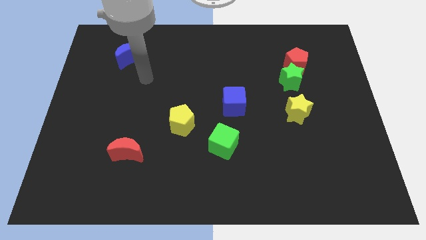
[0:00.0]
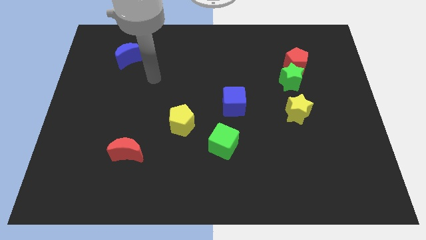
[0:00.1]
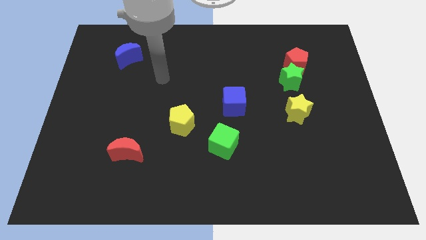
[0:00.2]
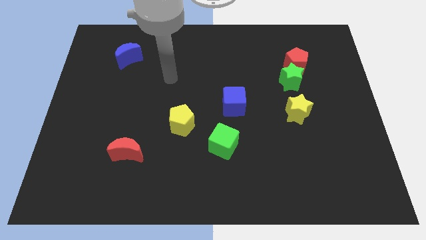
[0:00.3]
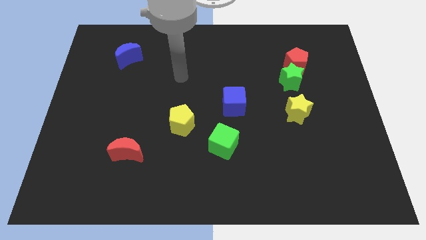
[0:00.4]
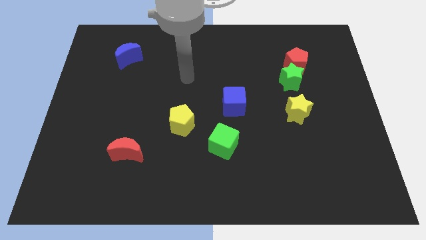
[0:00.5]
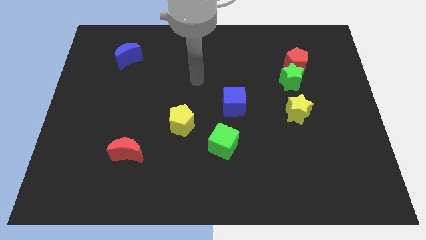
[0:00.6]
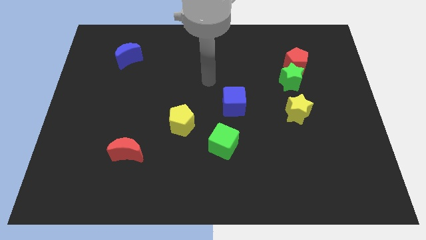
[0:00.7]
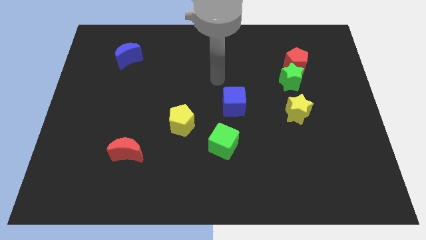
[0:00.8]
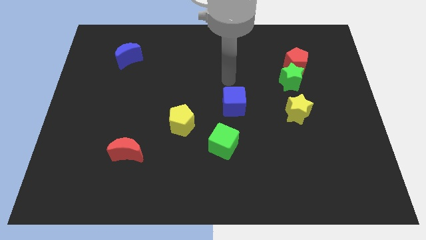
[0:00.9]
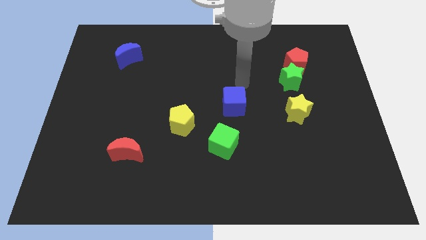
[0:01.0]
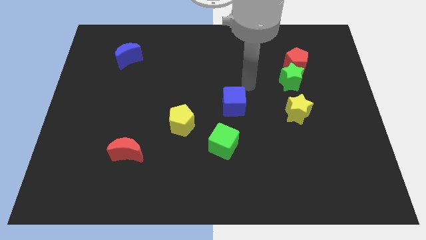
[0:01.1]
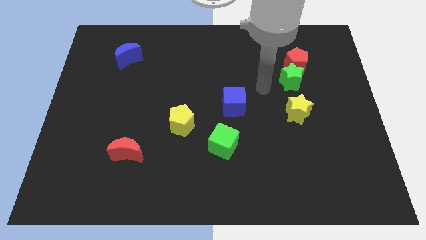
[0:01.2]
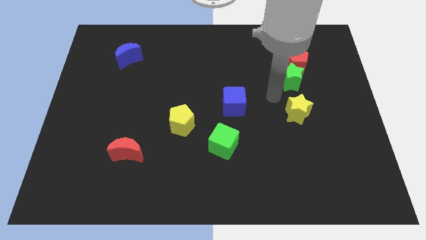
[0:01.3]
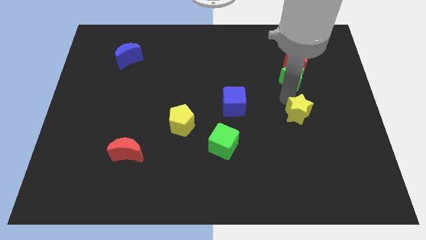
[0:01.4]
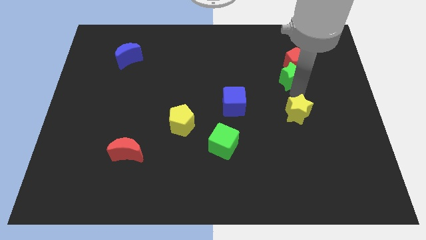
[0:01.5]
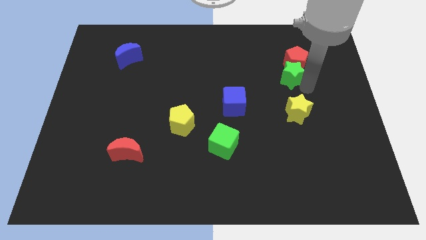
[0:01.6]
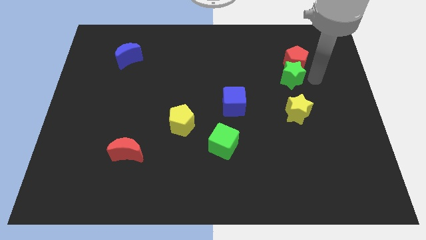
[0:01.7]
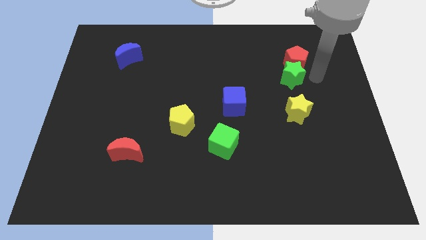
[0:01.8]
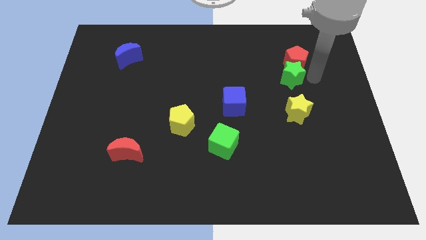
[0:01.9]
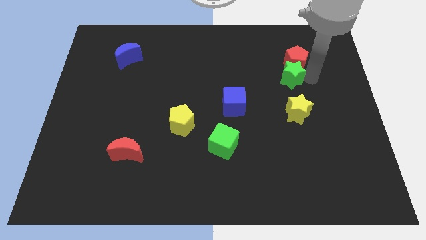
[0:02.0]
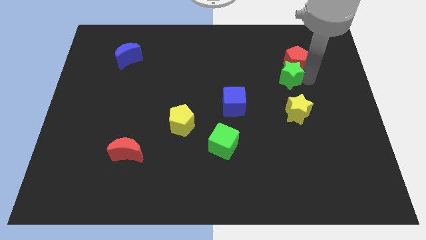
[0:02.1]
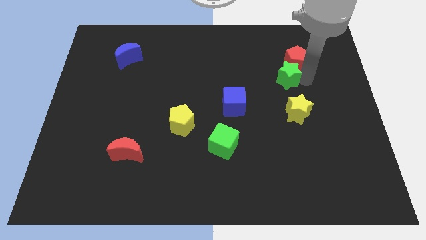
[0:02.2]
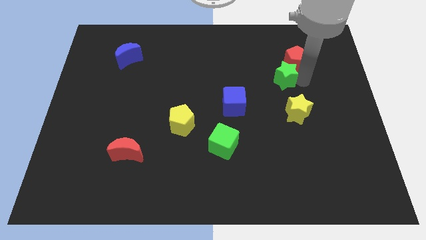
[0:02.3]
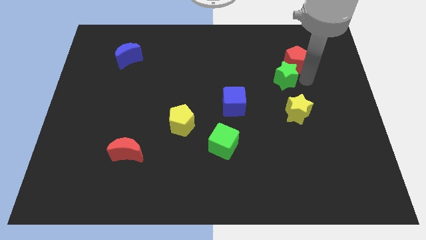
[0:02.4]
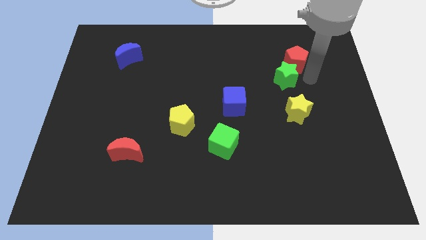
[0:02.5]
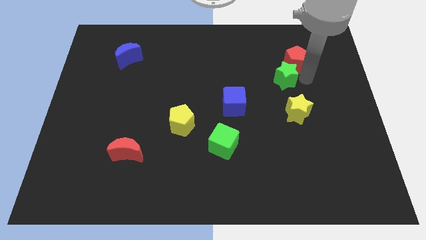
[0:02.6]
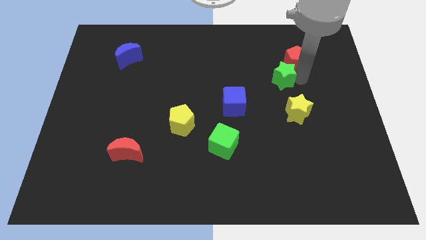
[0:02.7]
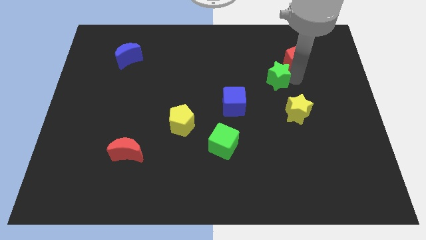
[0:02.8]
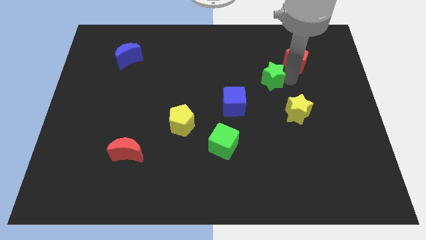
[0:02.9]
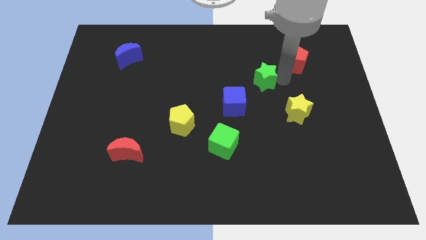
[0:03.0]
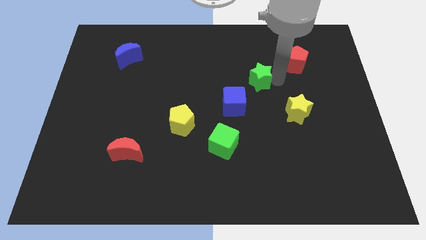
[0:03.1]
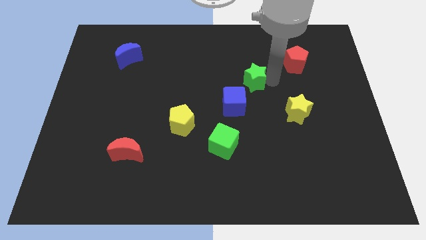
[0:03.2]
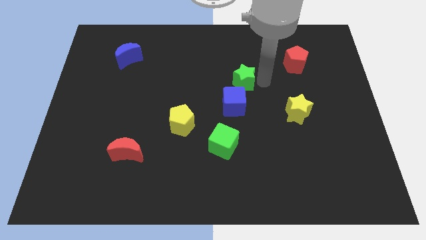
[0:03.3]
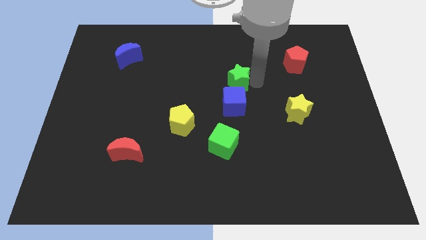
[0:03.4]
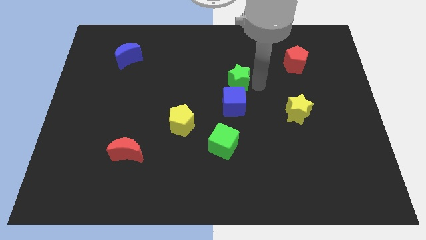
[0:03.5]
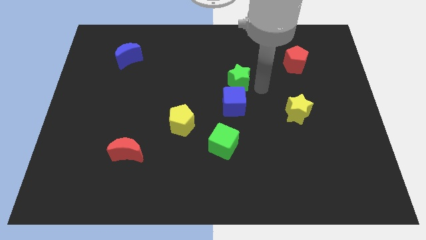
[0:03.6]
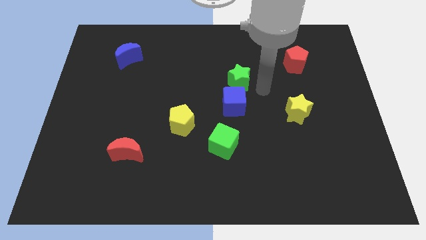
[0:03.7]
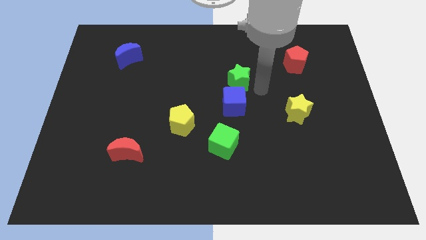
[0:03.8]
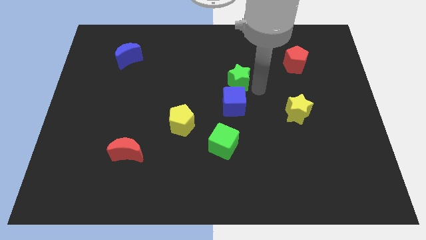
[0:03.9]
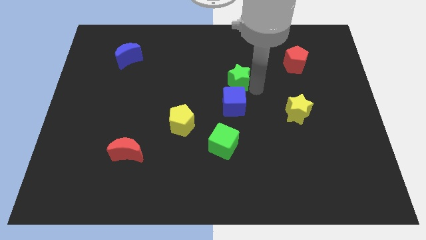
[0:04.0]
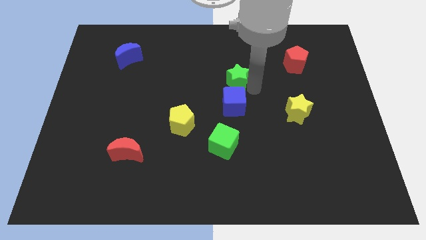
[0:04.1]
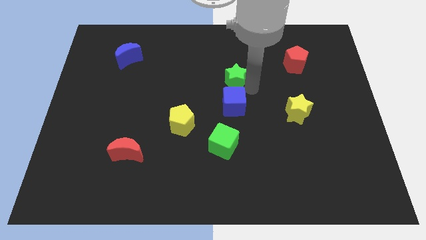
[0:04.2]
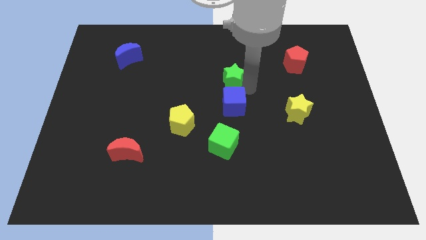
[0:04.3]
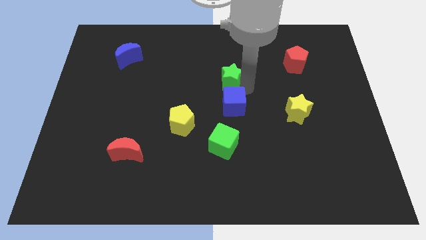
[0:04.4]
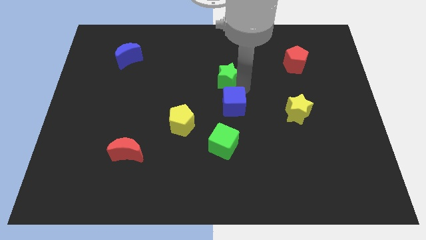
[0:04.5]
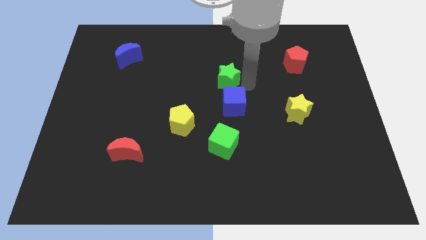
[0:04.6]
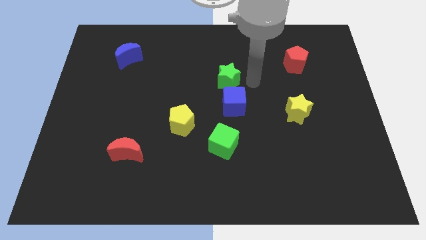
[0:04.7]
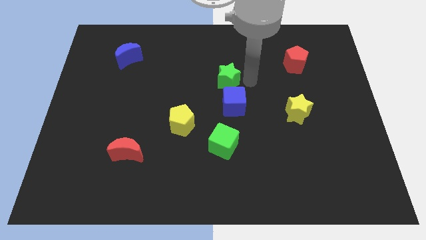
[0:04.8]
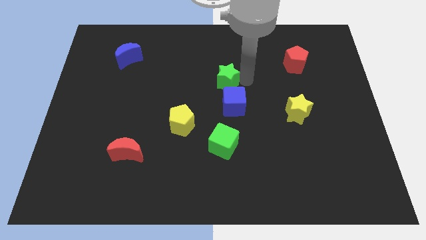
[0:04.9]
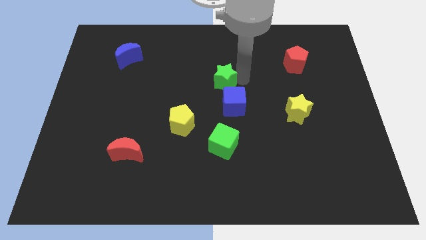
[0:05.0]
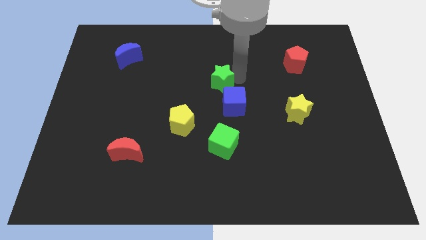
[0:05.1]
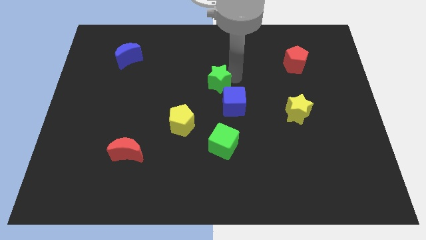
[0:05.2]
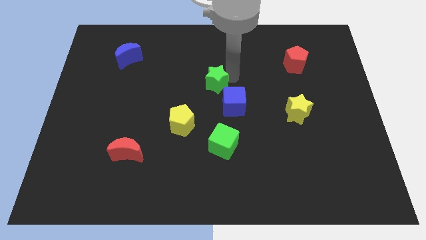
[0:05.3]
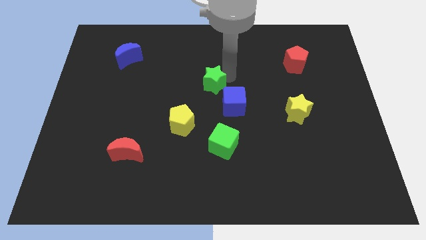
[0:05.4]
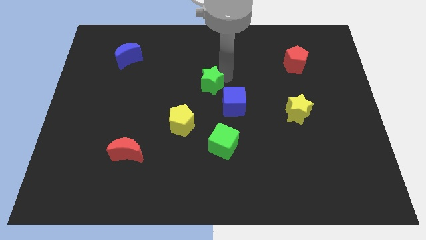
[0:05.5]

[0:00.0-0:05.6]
move the green star left

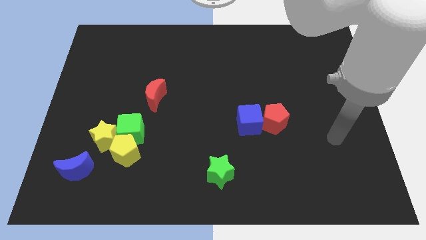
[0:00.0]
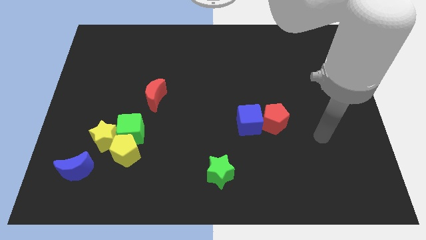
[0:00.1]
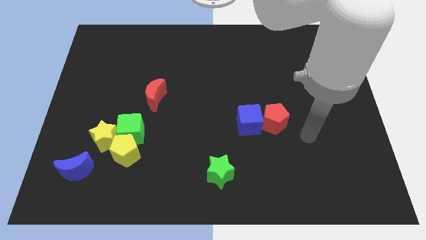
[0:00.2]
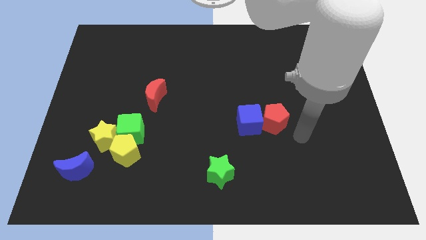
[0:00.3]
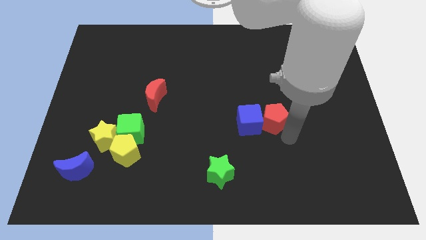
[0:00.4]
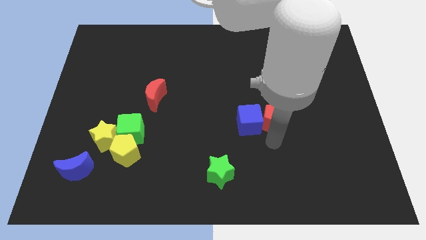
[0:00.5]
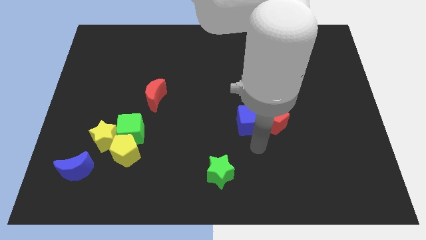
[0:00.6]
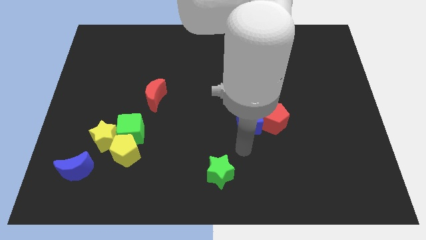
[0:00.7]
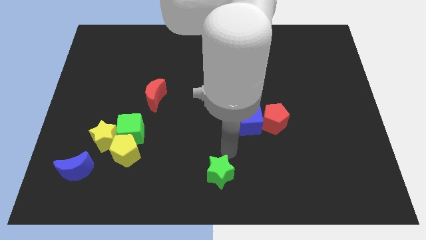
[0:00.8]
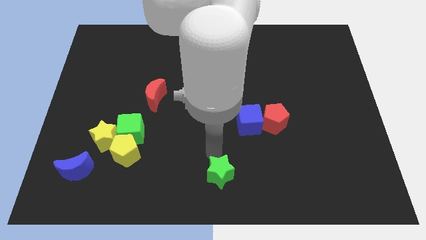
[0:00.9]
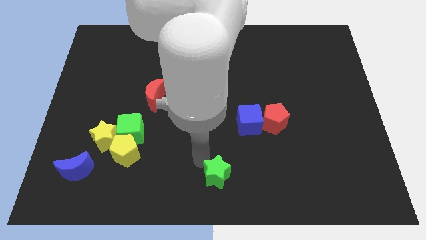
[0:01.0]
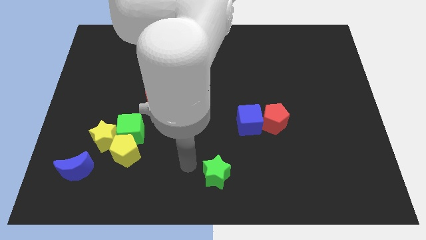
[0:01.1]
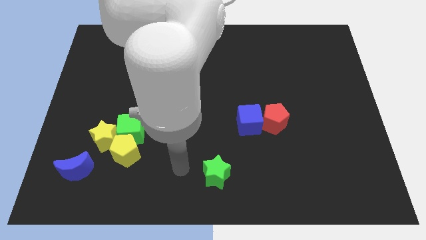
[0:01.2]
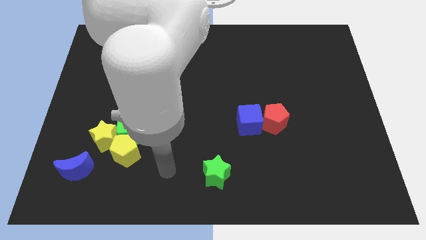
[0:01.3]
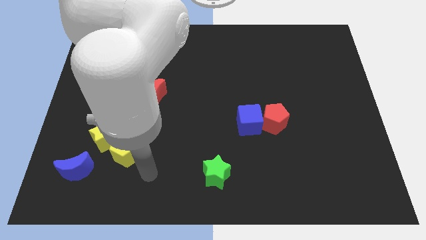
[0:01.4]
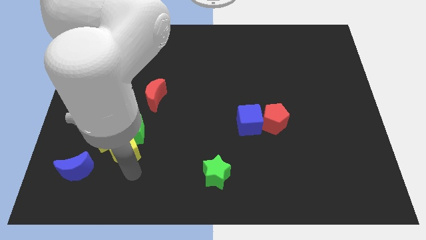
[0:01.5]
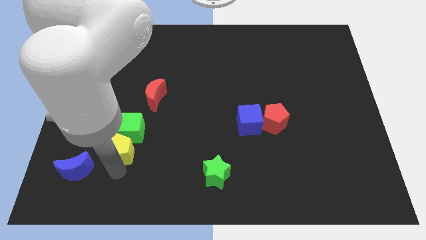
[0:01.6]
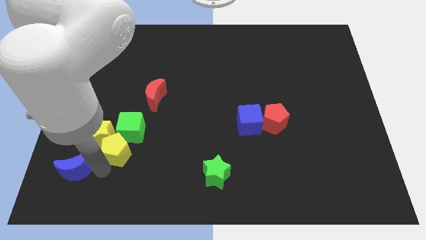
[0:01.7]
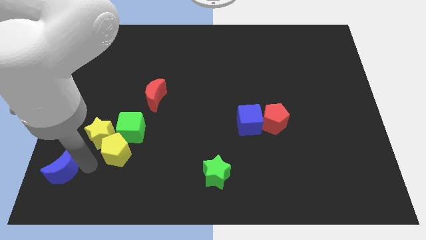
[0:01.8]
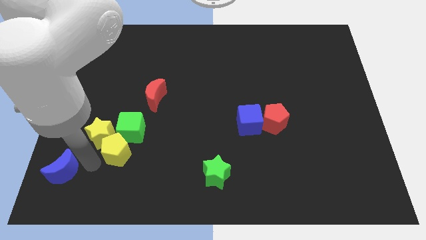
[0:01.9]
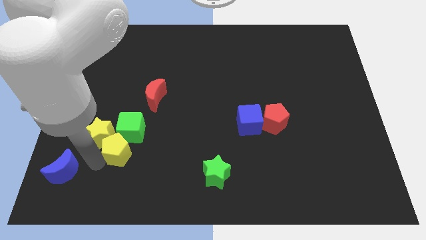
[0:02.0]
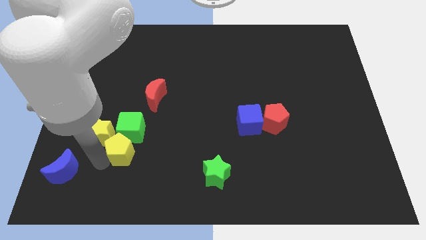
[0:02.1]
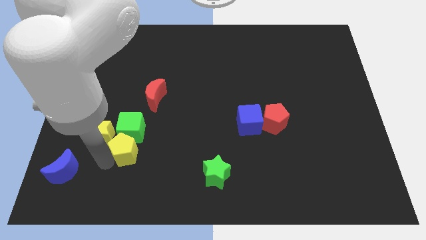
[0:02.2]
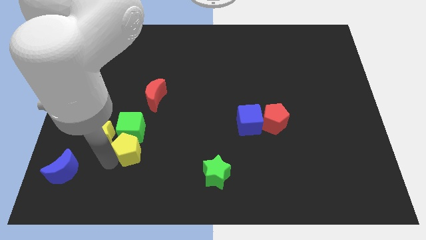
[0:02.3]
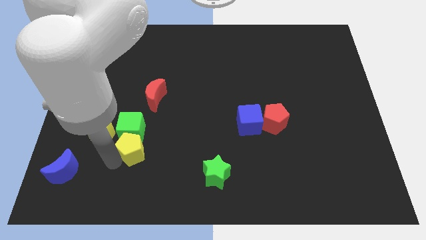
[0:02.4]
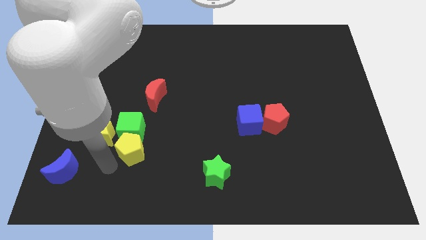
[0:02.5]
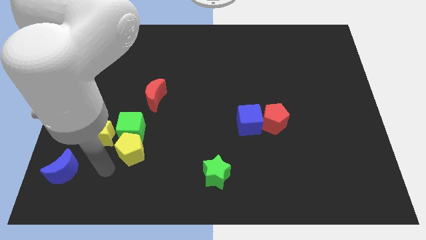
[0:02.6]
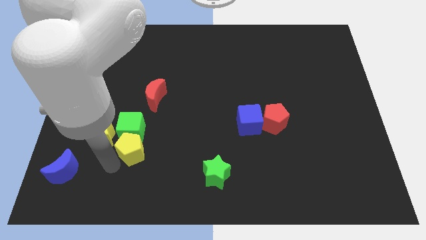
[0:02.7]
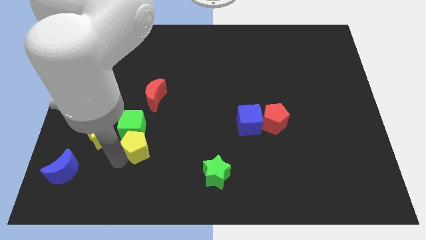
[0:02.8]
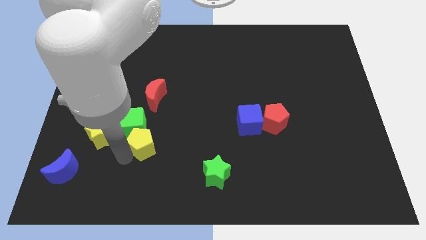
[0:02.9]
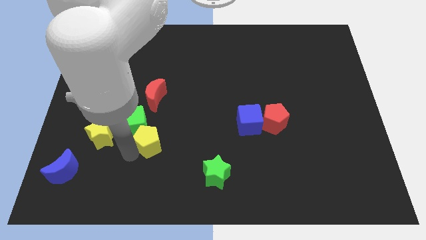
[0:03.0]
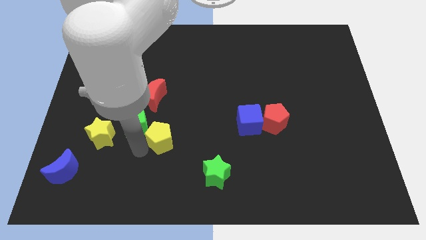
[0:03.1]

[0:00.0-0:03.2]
slide the yellow pentagon a bit diagonally up and to the right
